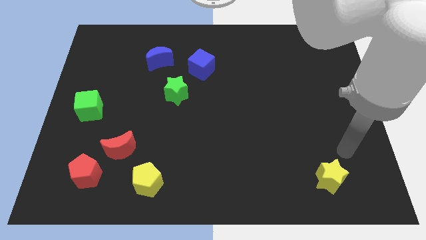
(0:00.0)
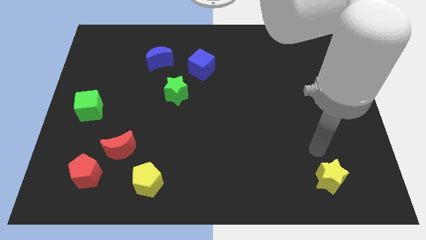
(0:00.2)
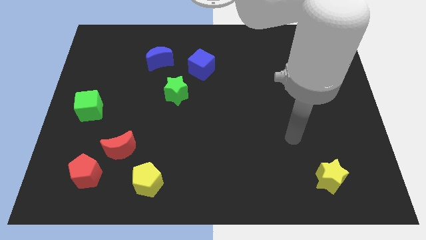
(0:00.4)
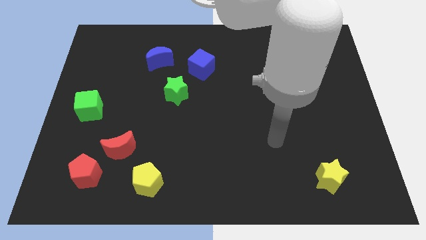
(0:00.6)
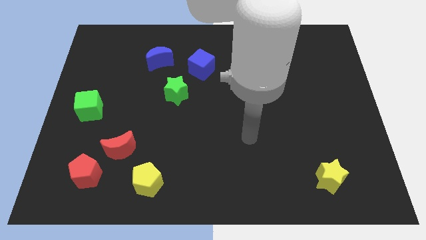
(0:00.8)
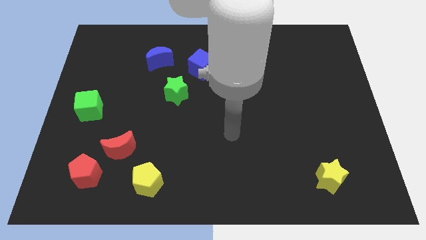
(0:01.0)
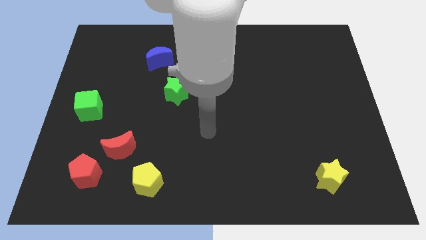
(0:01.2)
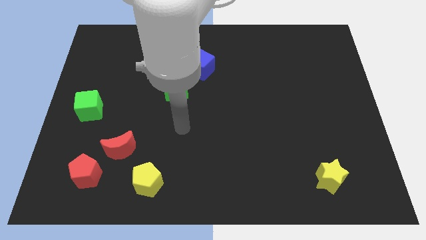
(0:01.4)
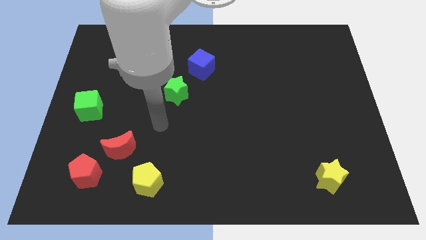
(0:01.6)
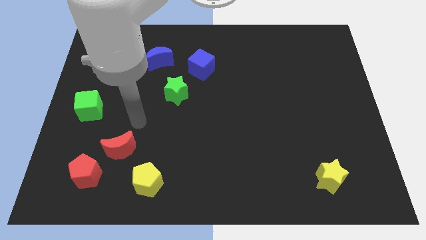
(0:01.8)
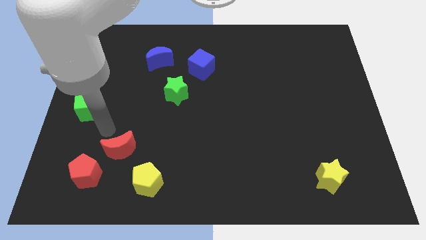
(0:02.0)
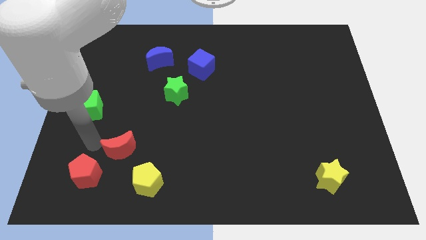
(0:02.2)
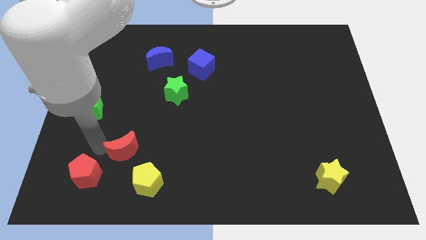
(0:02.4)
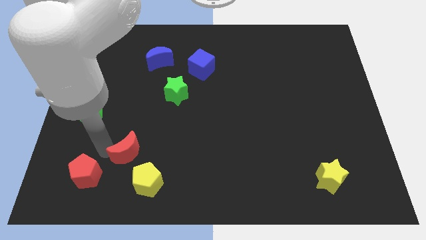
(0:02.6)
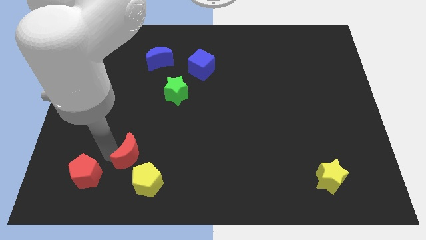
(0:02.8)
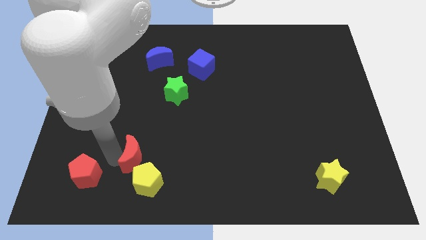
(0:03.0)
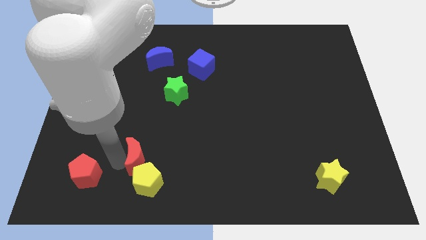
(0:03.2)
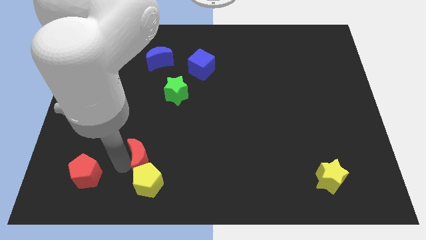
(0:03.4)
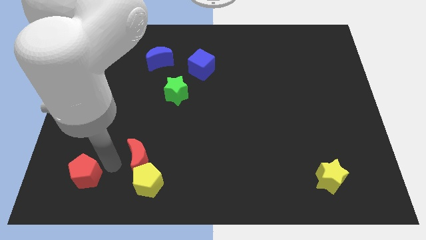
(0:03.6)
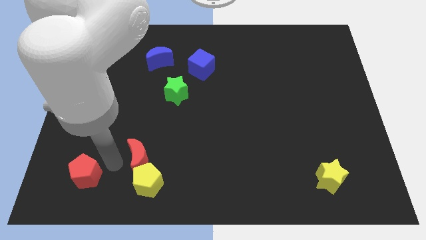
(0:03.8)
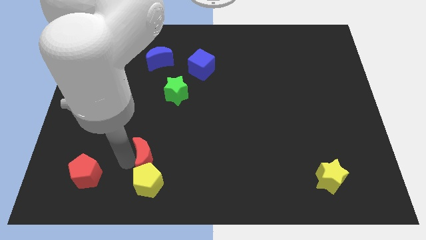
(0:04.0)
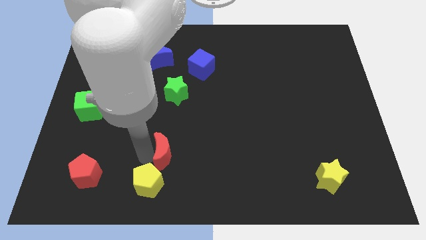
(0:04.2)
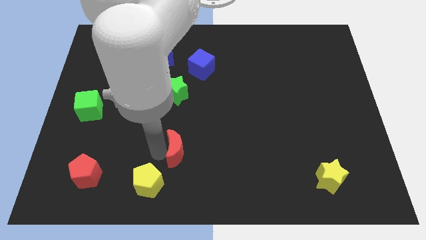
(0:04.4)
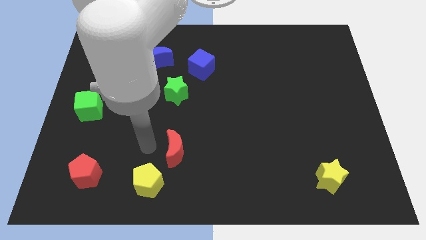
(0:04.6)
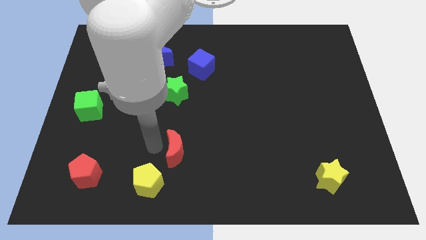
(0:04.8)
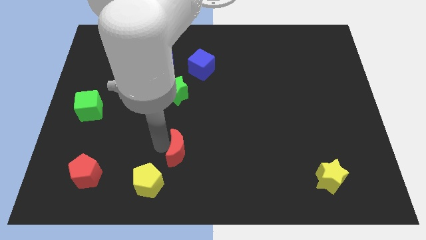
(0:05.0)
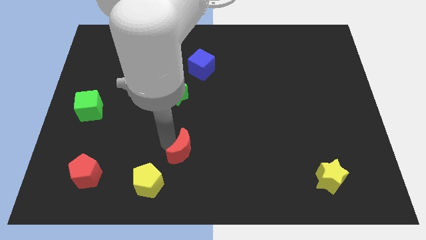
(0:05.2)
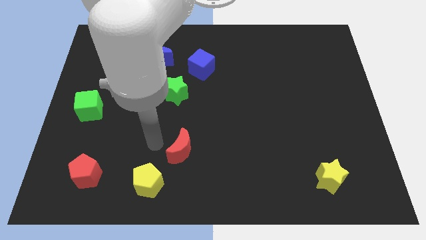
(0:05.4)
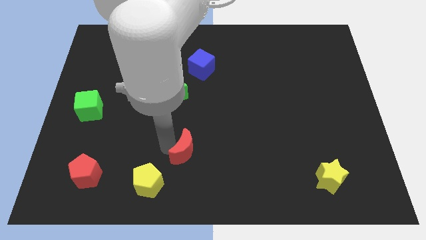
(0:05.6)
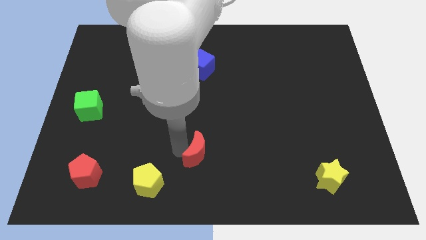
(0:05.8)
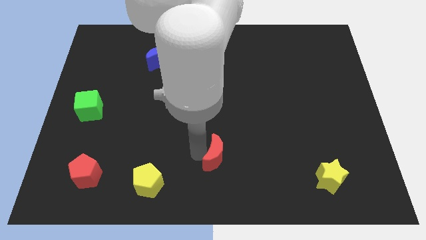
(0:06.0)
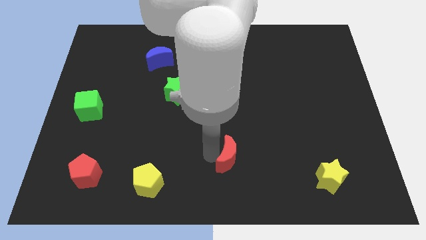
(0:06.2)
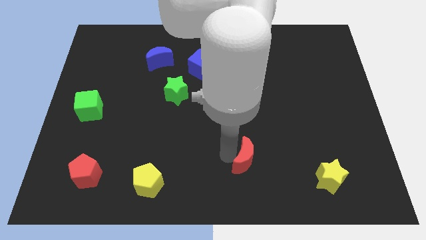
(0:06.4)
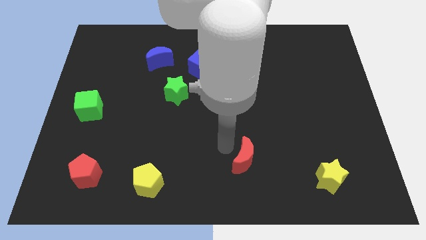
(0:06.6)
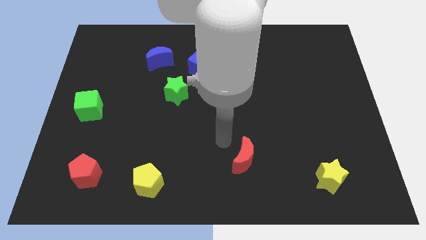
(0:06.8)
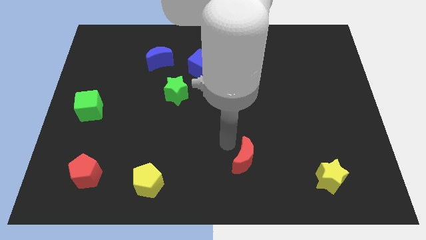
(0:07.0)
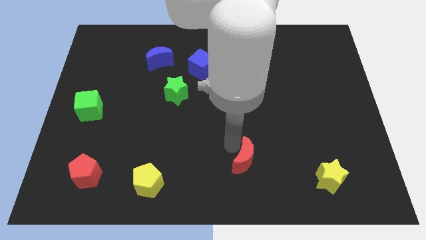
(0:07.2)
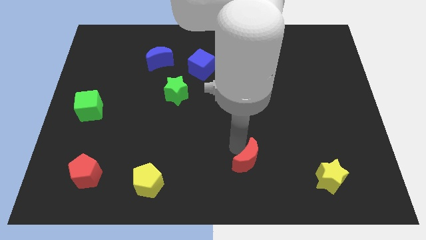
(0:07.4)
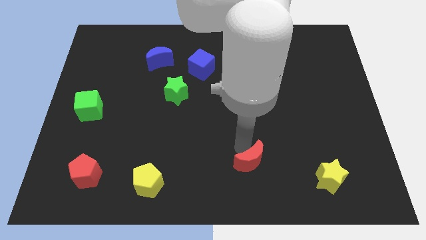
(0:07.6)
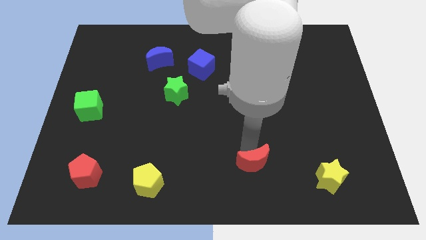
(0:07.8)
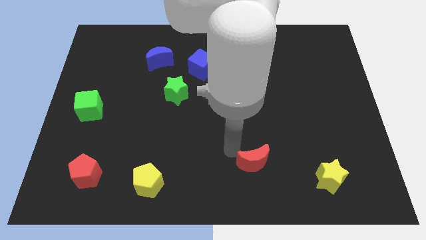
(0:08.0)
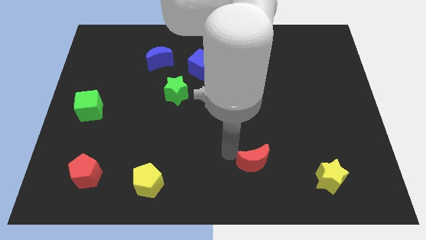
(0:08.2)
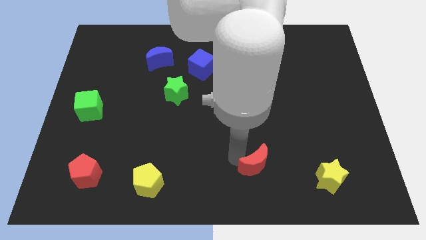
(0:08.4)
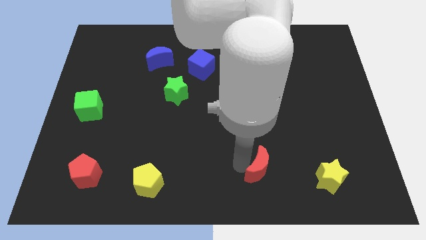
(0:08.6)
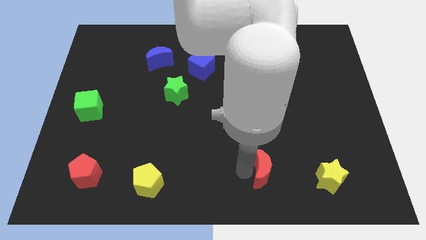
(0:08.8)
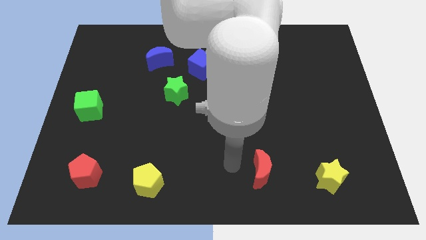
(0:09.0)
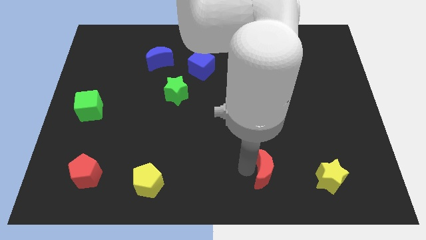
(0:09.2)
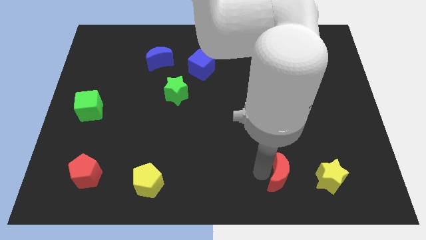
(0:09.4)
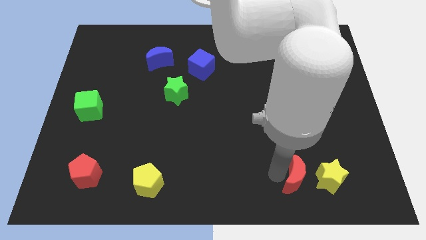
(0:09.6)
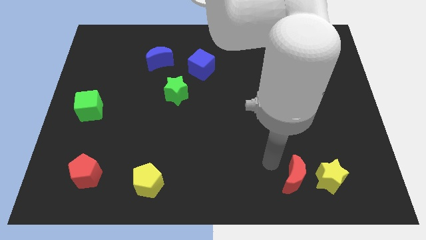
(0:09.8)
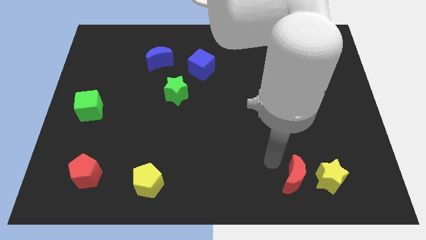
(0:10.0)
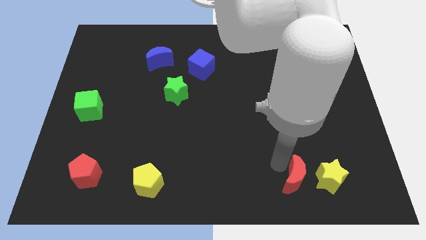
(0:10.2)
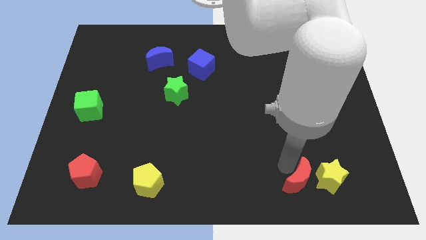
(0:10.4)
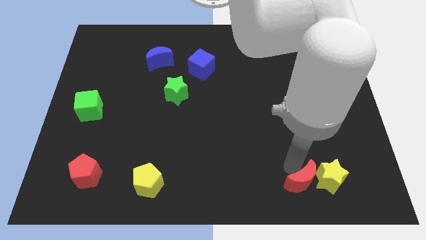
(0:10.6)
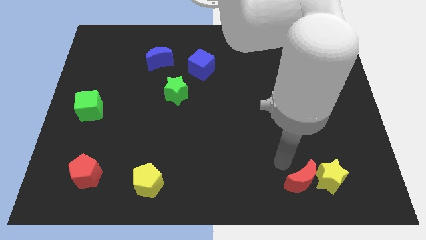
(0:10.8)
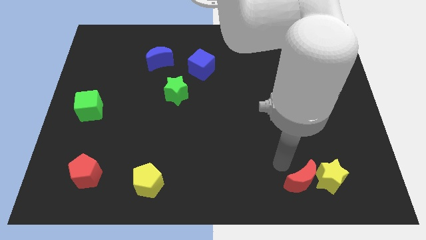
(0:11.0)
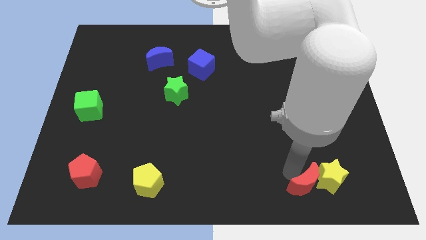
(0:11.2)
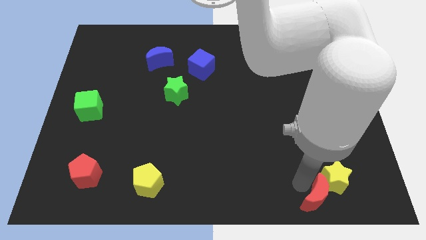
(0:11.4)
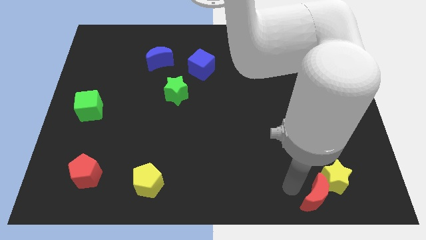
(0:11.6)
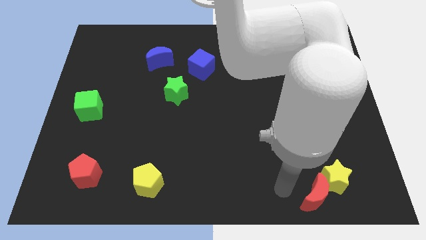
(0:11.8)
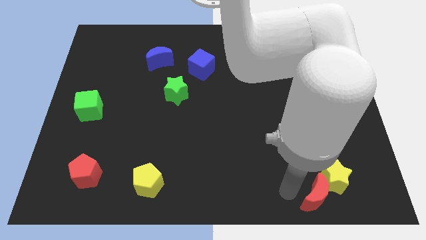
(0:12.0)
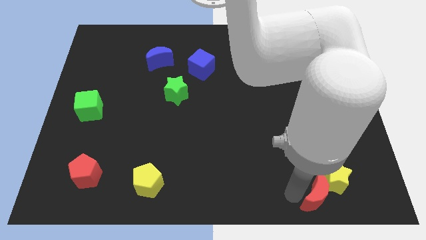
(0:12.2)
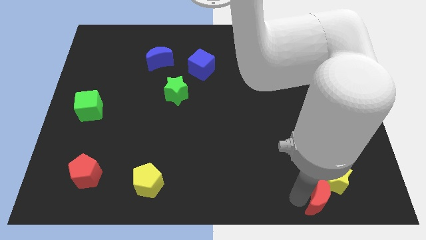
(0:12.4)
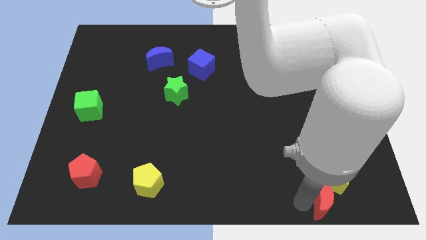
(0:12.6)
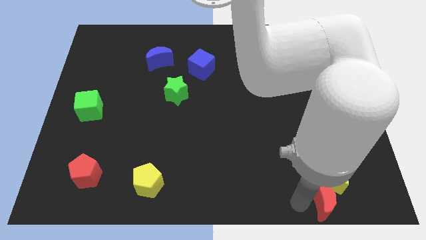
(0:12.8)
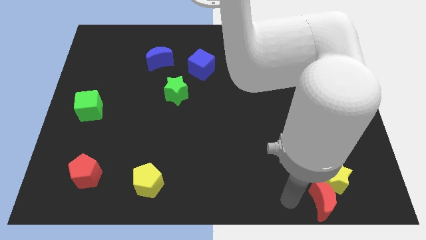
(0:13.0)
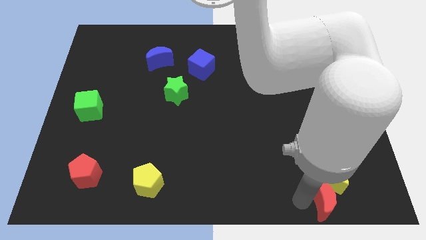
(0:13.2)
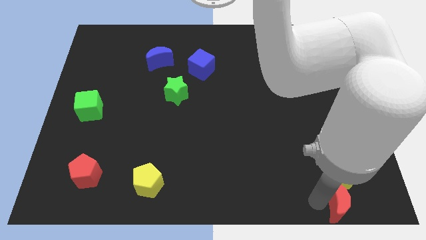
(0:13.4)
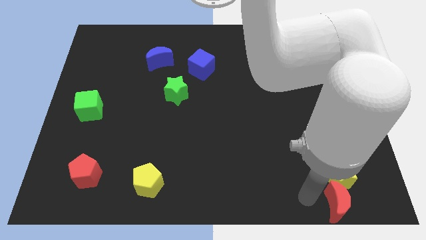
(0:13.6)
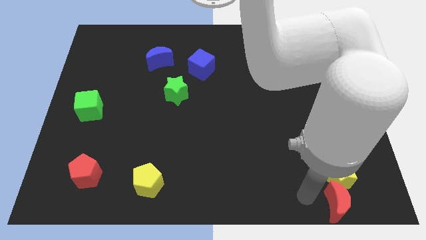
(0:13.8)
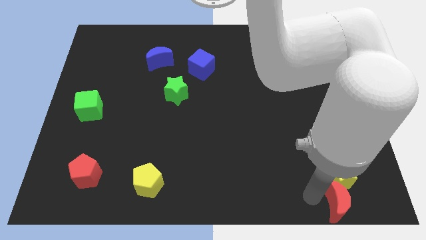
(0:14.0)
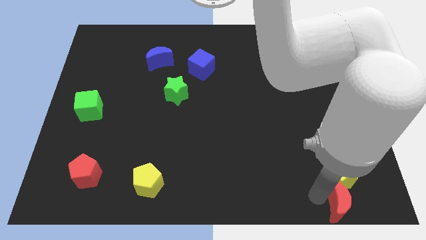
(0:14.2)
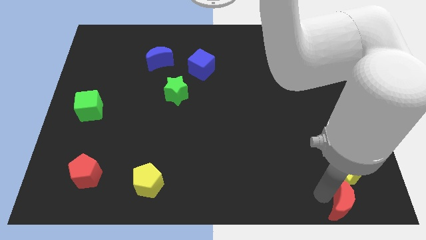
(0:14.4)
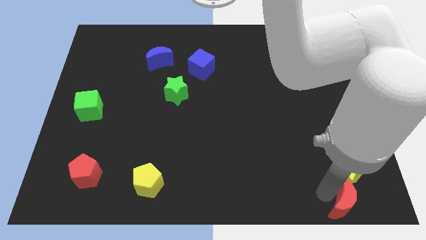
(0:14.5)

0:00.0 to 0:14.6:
push the red moon to the bottom right corner

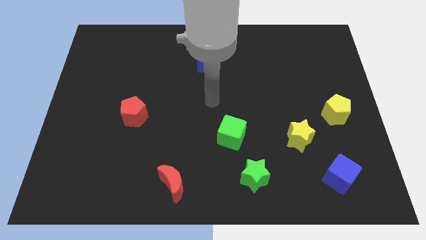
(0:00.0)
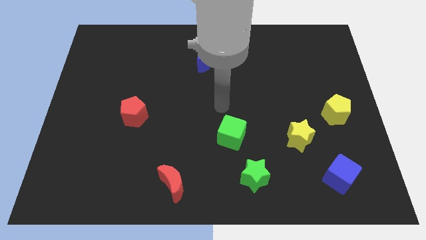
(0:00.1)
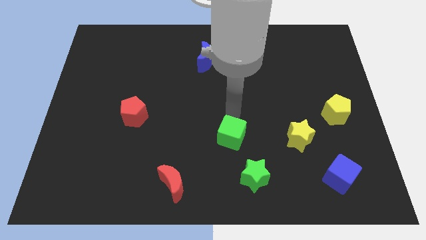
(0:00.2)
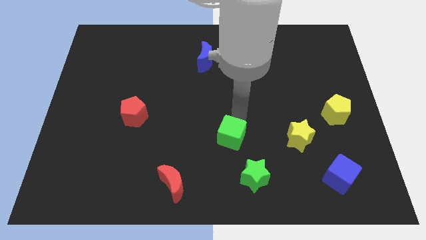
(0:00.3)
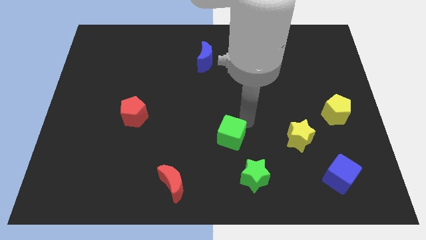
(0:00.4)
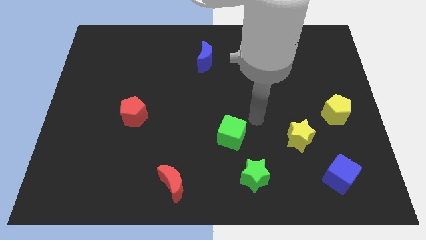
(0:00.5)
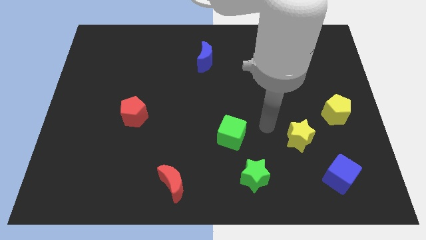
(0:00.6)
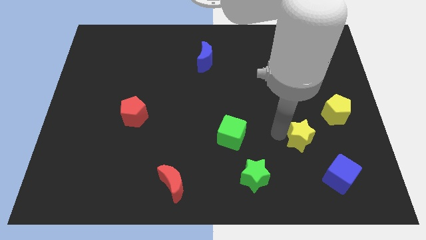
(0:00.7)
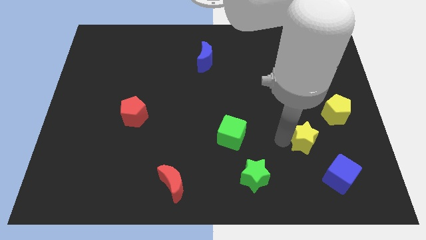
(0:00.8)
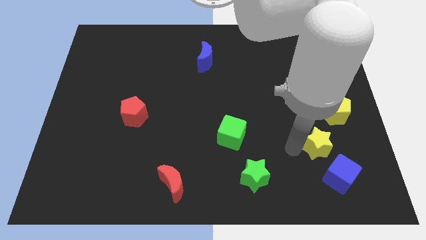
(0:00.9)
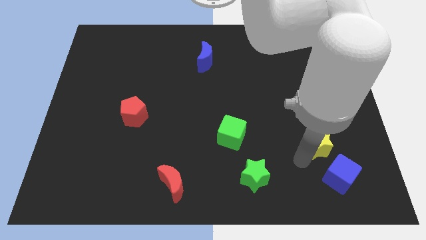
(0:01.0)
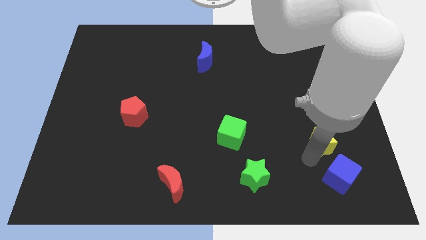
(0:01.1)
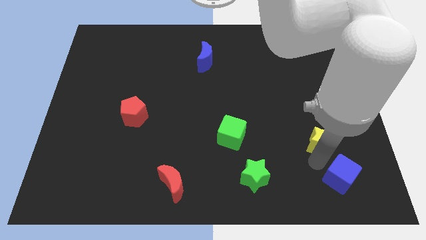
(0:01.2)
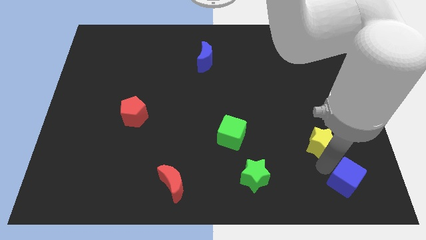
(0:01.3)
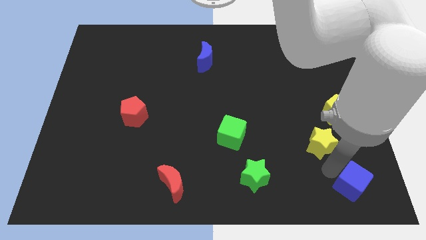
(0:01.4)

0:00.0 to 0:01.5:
slide the blue cube to the lower right corner
